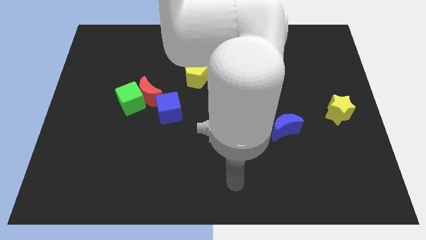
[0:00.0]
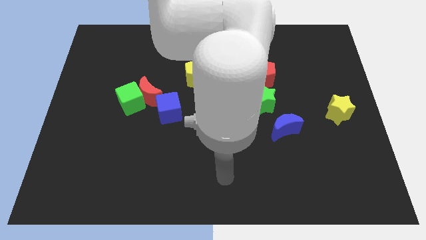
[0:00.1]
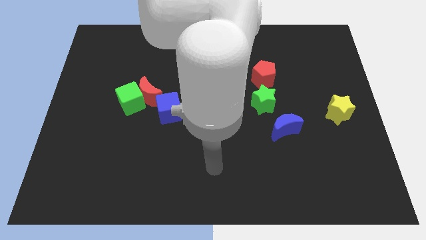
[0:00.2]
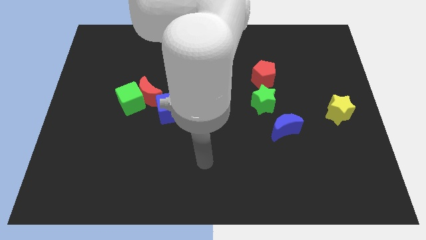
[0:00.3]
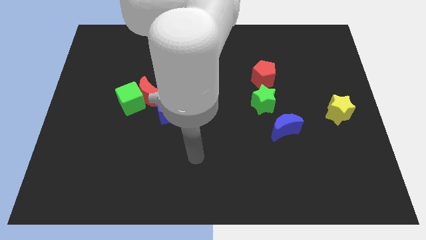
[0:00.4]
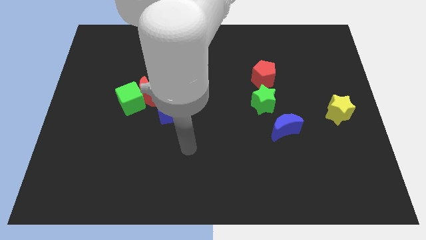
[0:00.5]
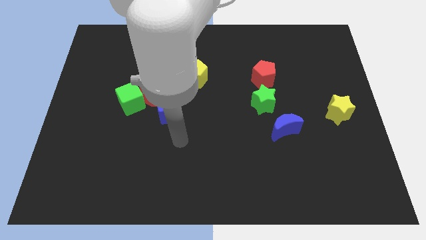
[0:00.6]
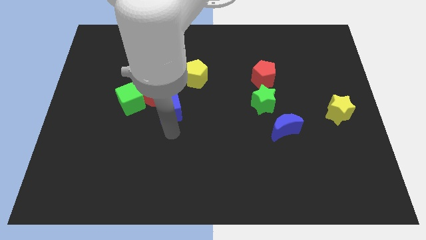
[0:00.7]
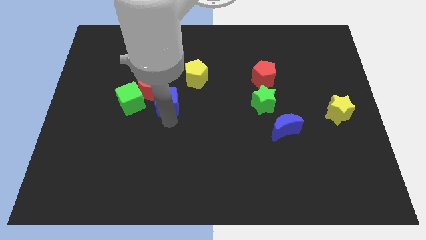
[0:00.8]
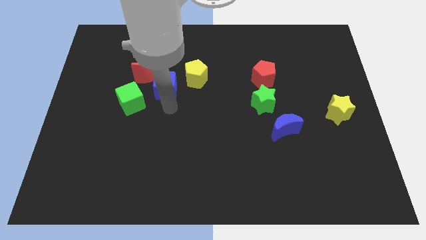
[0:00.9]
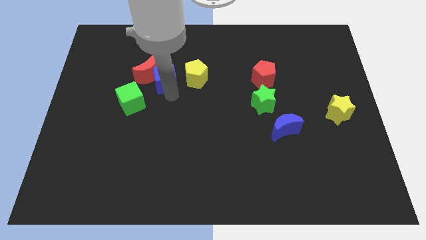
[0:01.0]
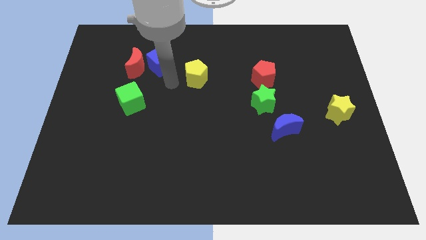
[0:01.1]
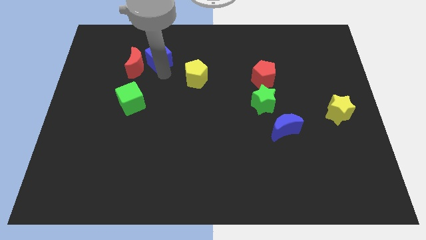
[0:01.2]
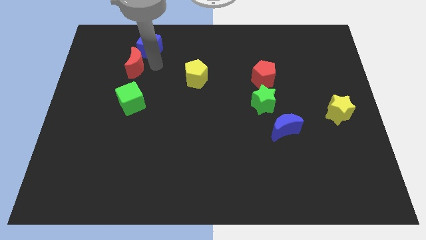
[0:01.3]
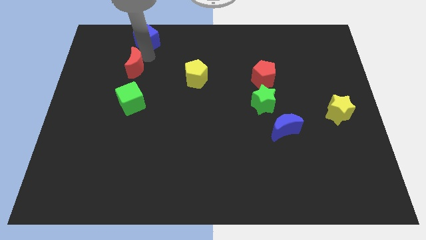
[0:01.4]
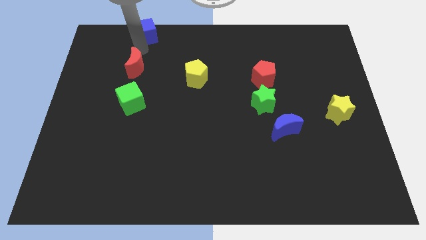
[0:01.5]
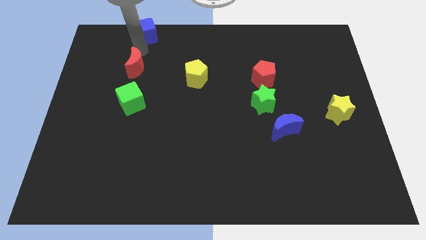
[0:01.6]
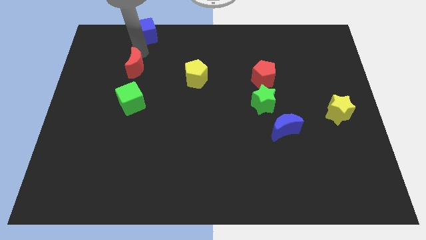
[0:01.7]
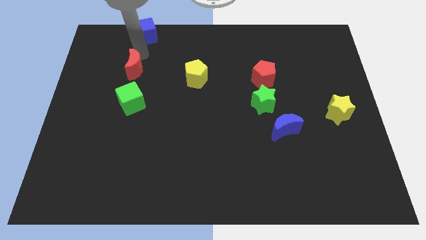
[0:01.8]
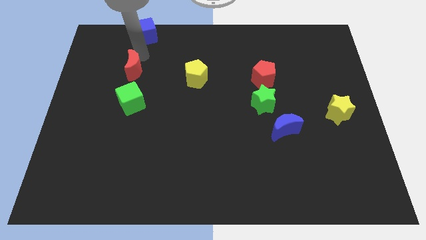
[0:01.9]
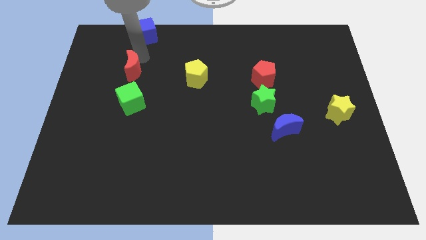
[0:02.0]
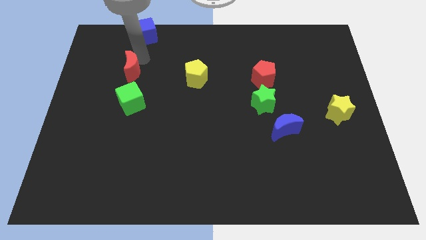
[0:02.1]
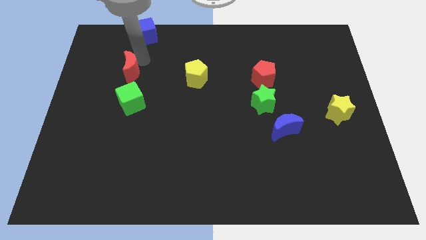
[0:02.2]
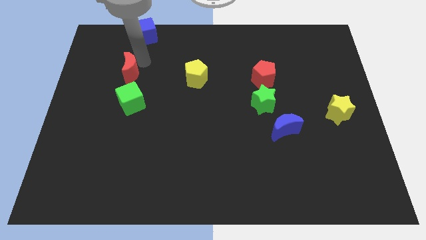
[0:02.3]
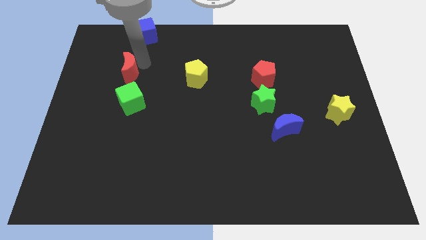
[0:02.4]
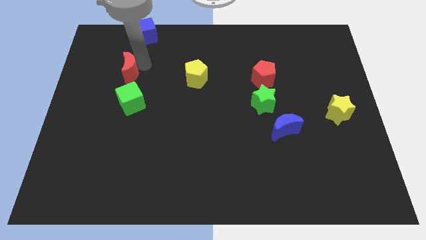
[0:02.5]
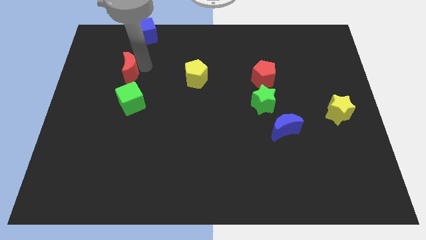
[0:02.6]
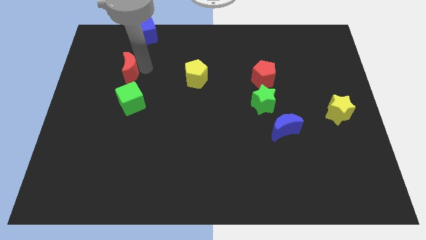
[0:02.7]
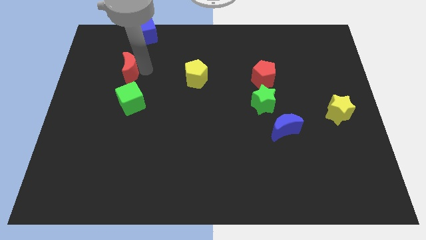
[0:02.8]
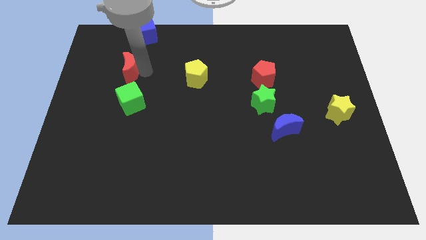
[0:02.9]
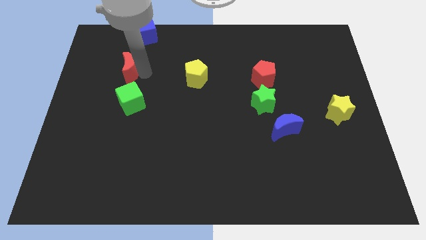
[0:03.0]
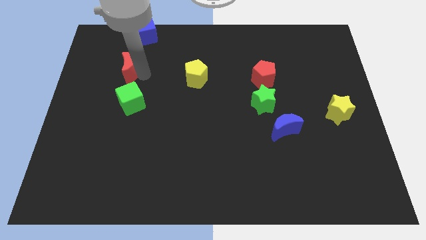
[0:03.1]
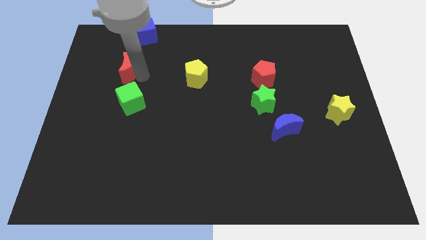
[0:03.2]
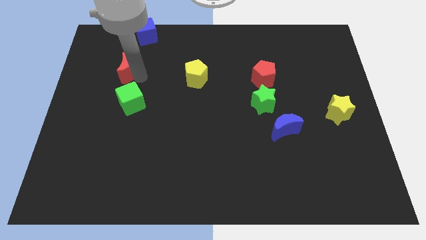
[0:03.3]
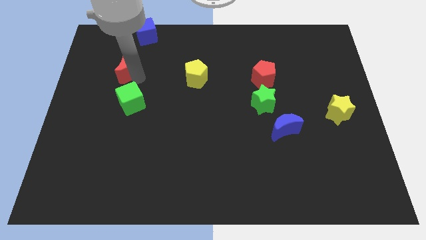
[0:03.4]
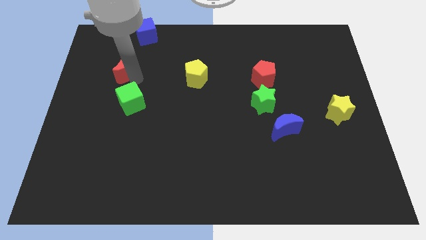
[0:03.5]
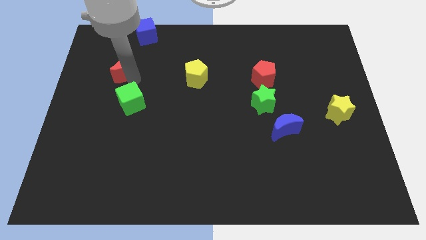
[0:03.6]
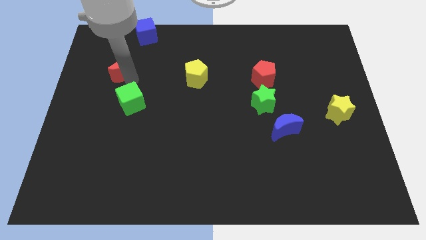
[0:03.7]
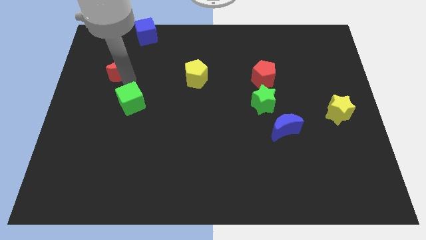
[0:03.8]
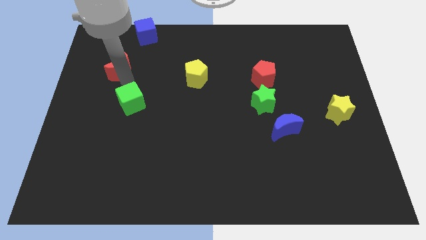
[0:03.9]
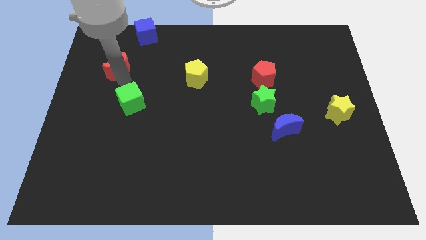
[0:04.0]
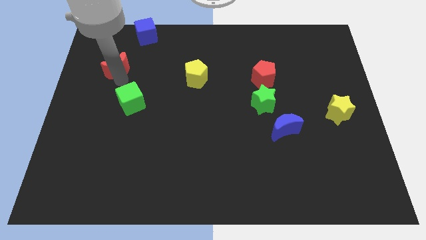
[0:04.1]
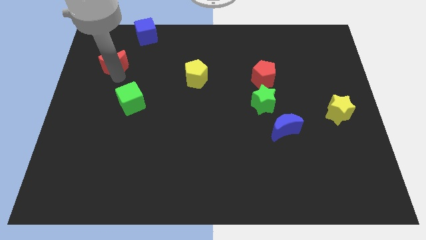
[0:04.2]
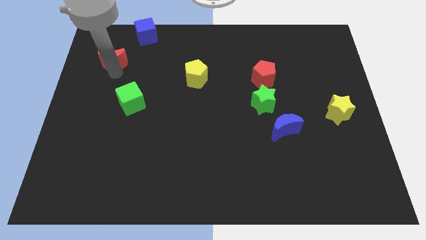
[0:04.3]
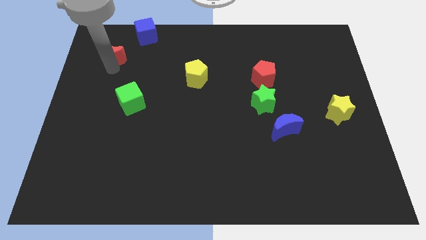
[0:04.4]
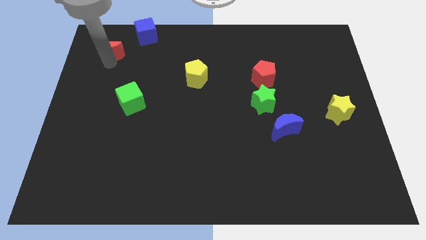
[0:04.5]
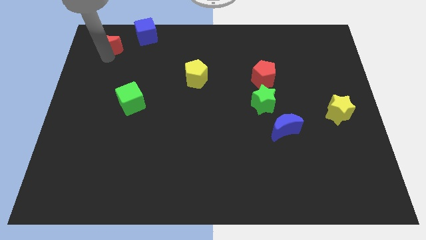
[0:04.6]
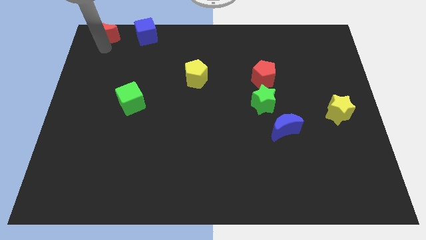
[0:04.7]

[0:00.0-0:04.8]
put the red moon to the upper left corner

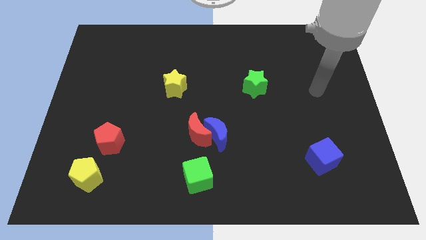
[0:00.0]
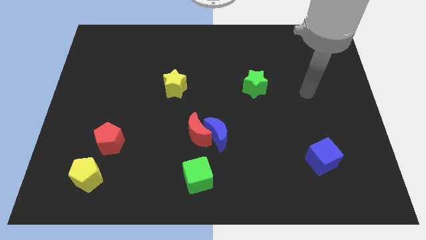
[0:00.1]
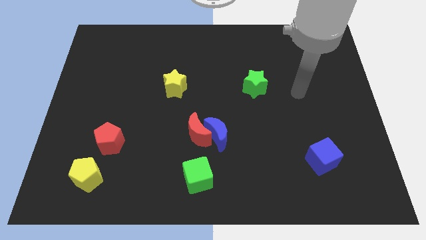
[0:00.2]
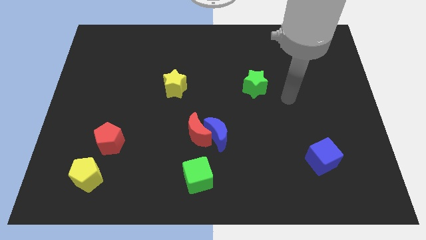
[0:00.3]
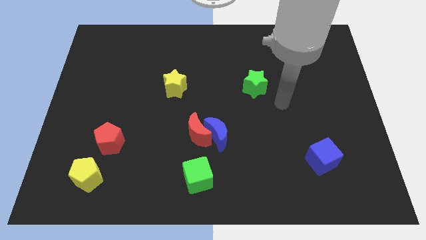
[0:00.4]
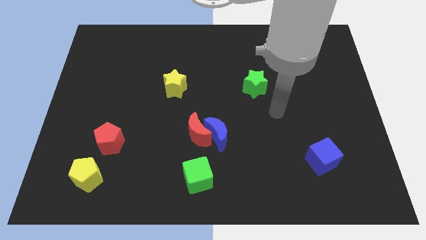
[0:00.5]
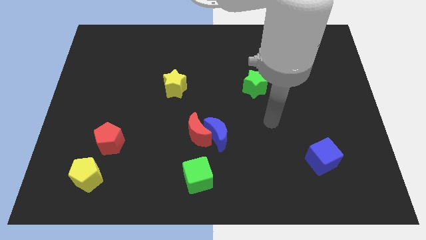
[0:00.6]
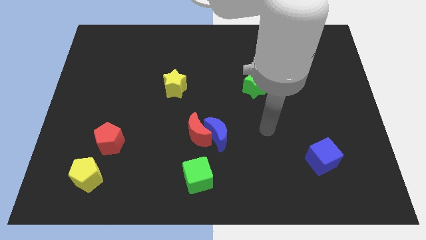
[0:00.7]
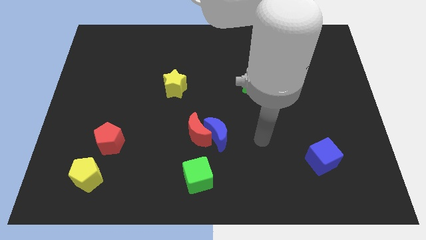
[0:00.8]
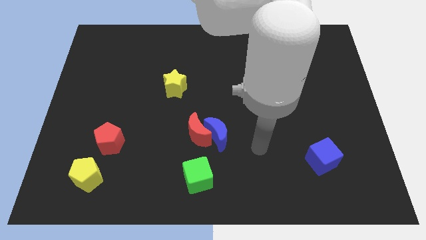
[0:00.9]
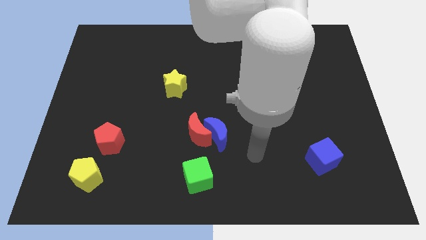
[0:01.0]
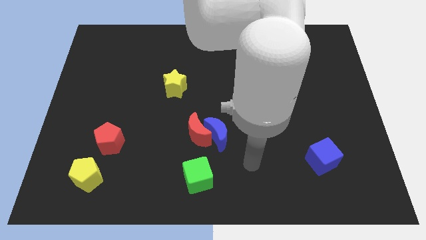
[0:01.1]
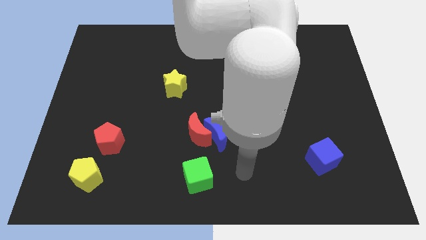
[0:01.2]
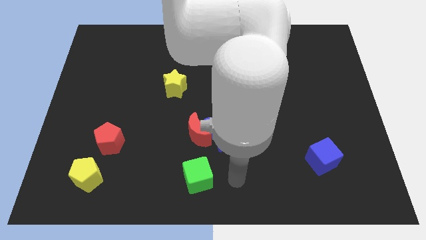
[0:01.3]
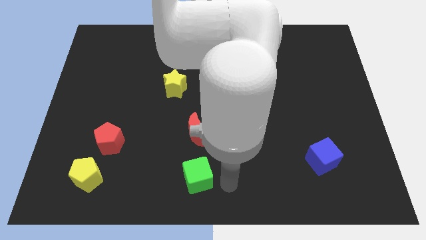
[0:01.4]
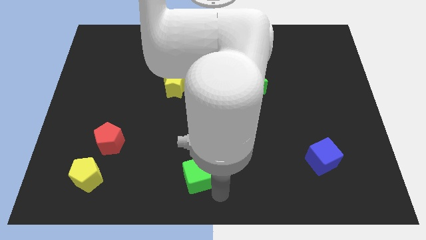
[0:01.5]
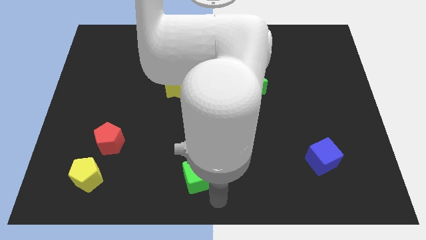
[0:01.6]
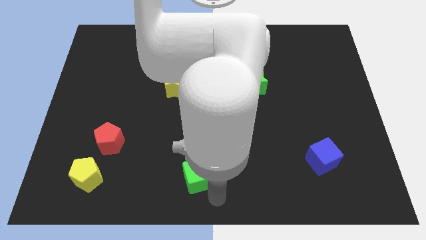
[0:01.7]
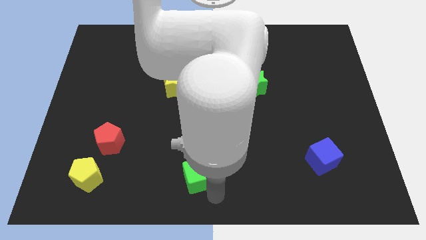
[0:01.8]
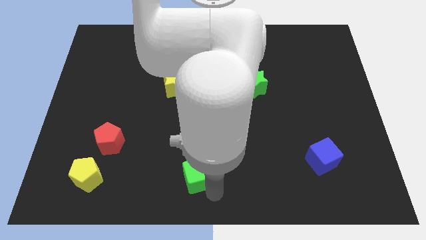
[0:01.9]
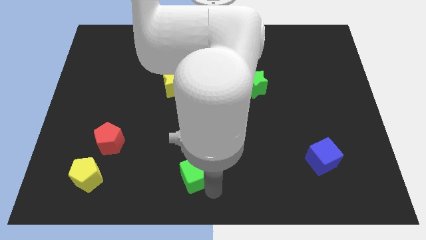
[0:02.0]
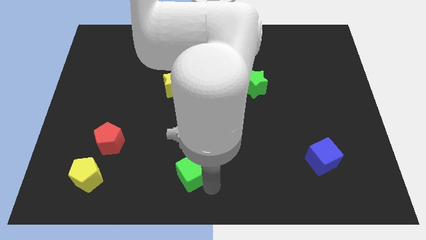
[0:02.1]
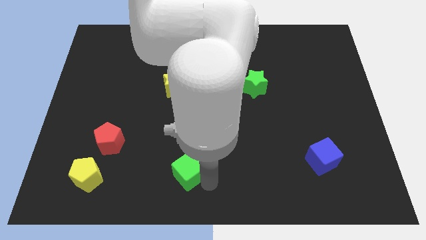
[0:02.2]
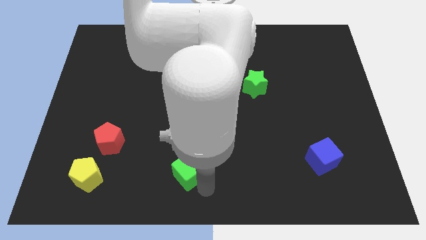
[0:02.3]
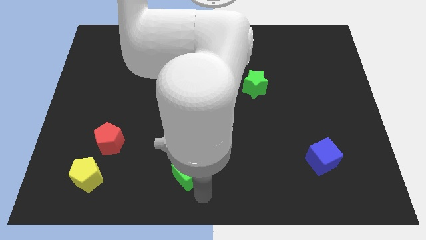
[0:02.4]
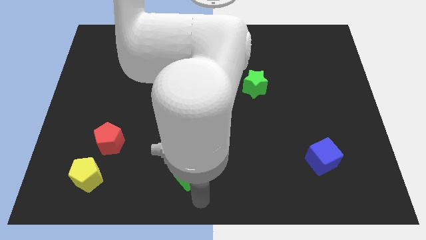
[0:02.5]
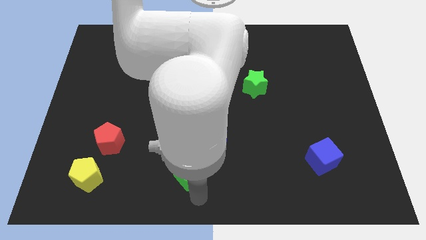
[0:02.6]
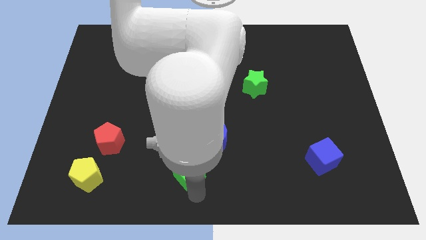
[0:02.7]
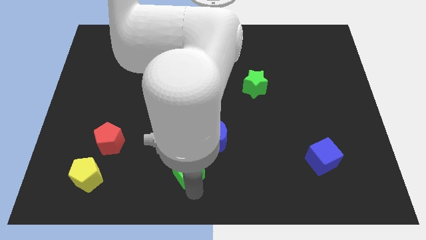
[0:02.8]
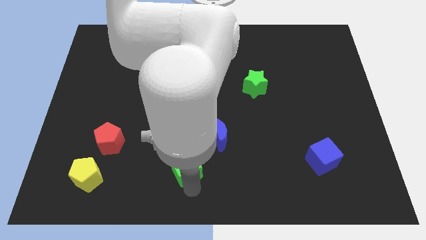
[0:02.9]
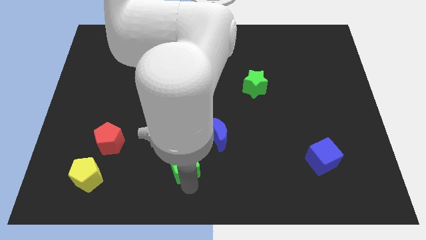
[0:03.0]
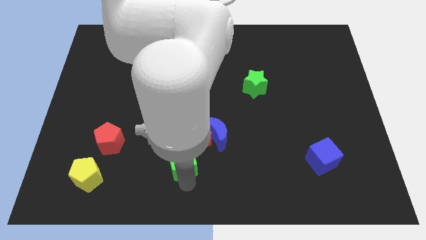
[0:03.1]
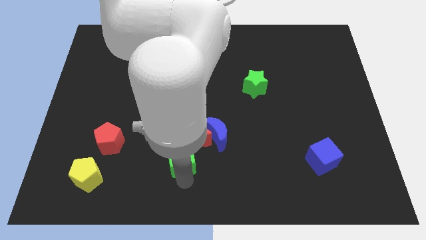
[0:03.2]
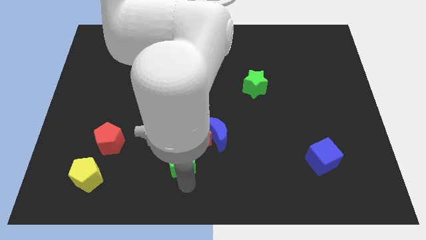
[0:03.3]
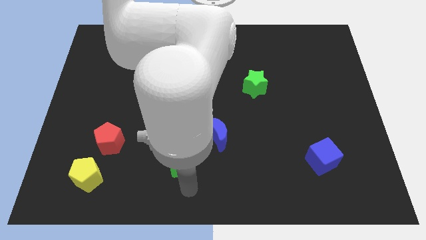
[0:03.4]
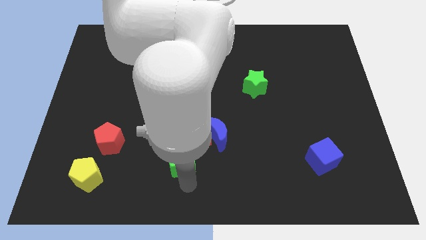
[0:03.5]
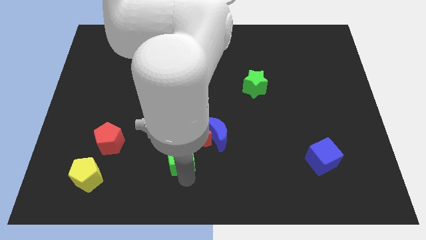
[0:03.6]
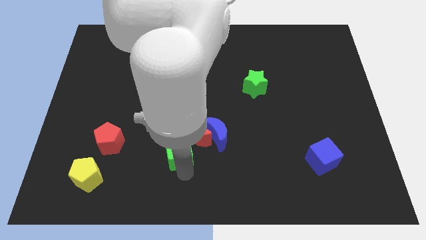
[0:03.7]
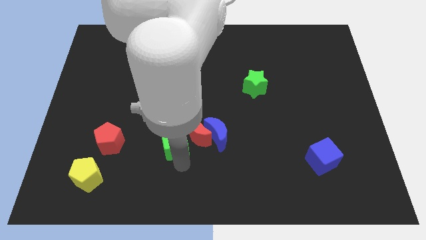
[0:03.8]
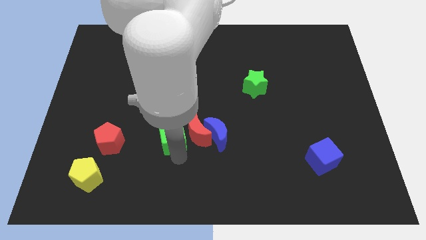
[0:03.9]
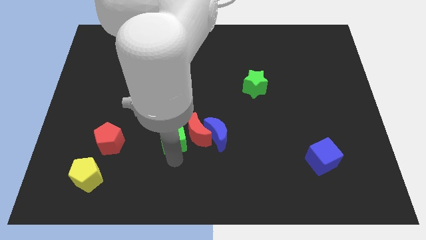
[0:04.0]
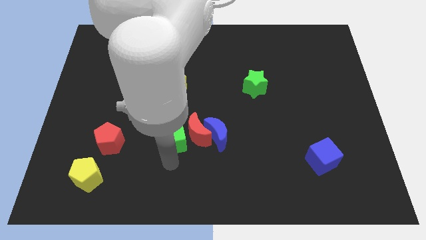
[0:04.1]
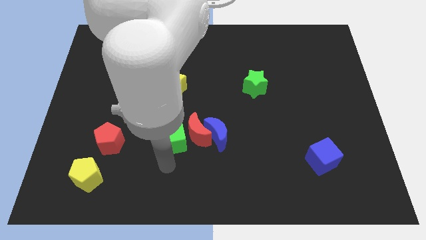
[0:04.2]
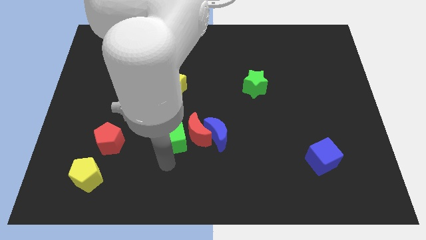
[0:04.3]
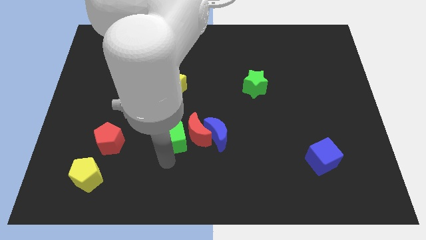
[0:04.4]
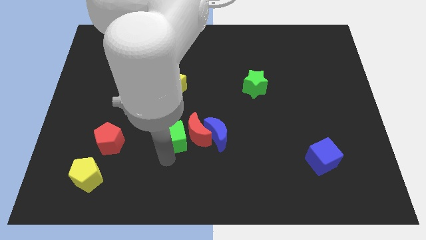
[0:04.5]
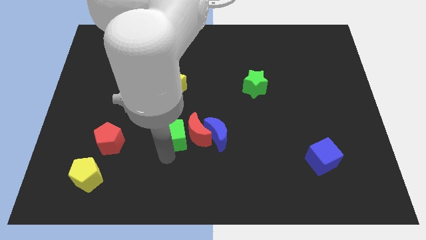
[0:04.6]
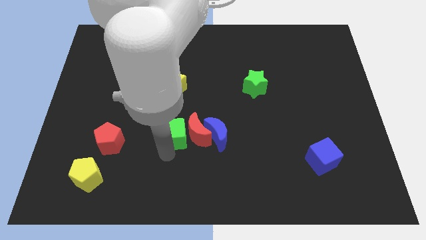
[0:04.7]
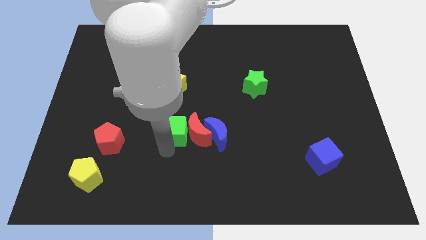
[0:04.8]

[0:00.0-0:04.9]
push the green cube to the middle
